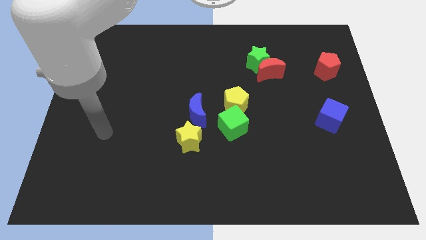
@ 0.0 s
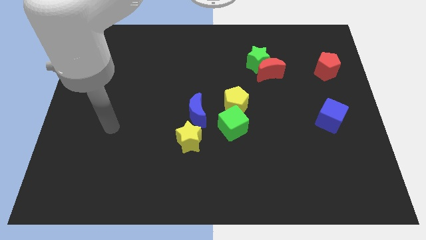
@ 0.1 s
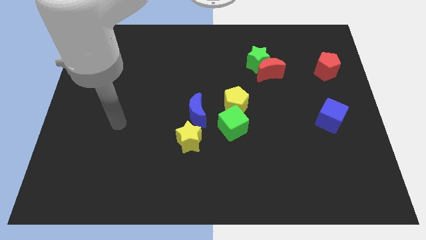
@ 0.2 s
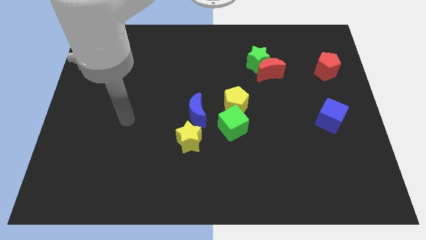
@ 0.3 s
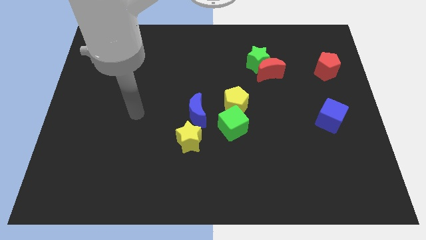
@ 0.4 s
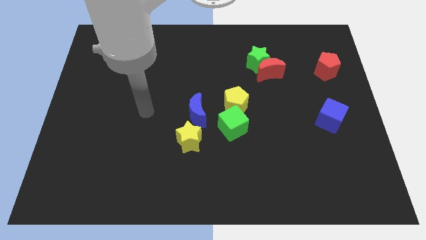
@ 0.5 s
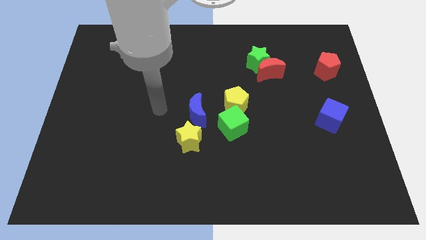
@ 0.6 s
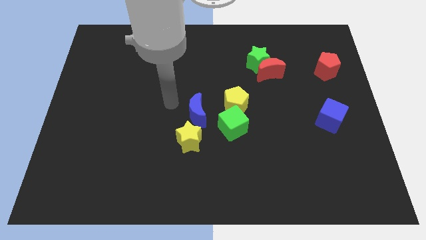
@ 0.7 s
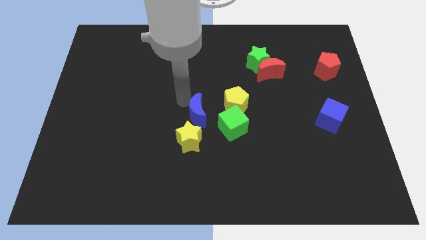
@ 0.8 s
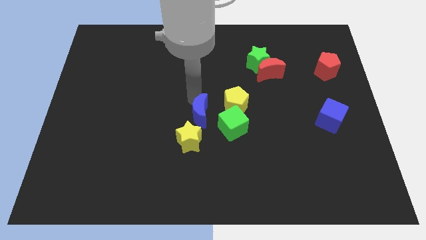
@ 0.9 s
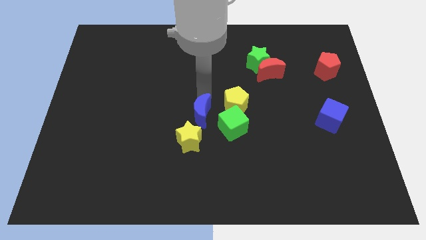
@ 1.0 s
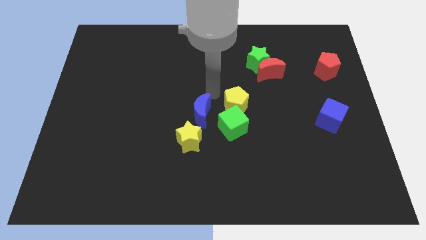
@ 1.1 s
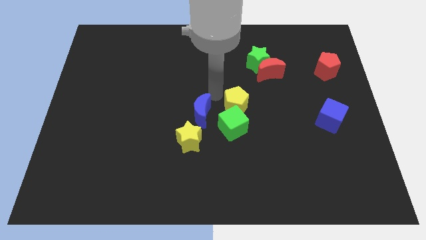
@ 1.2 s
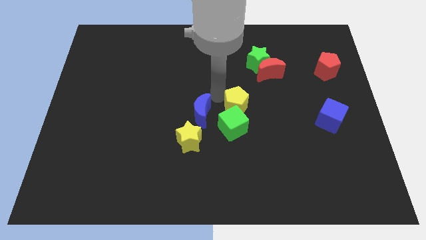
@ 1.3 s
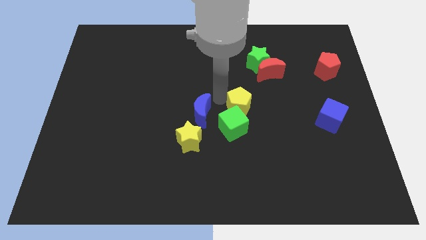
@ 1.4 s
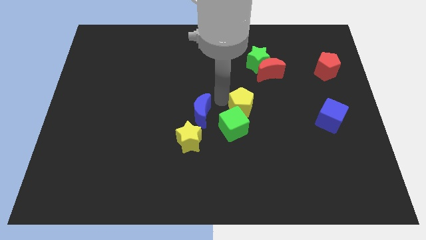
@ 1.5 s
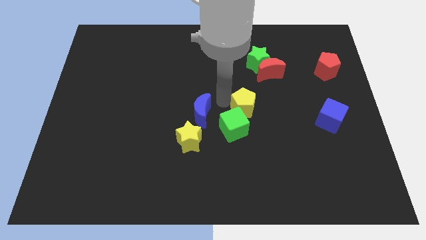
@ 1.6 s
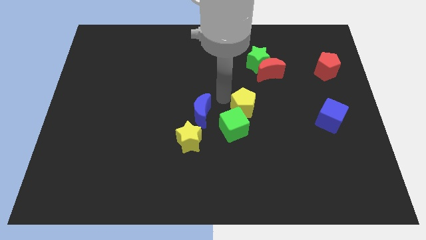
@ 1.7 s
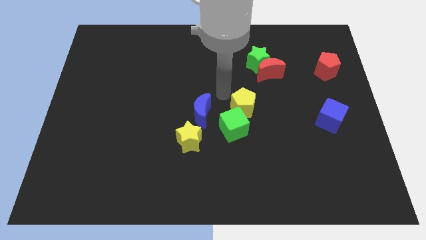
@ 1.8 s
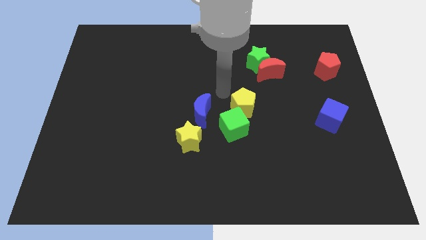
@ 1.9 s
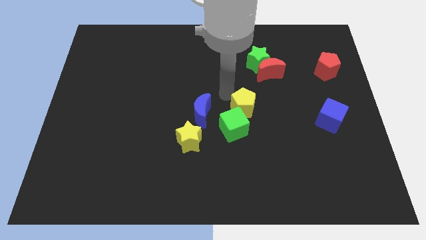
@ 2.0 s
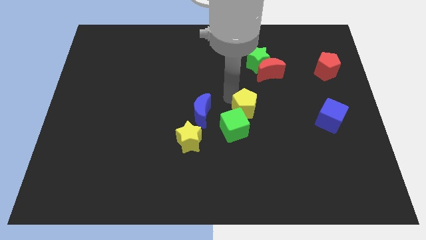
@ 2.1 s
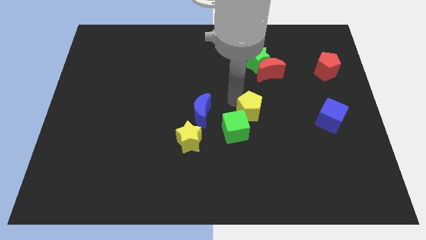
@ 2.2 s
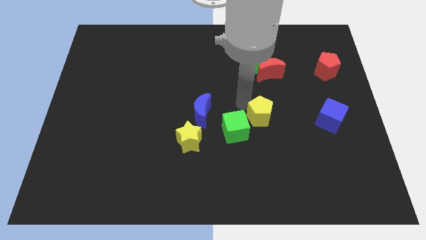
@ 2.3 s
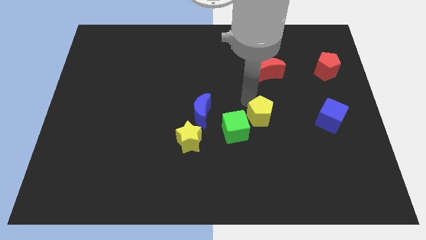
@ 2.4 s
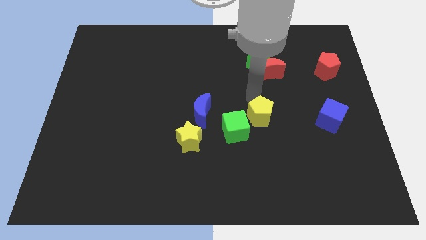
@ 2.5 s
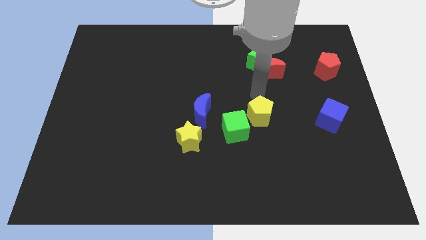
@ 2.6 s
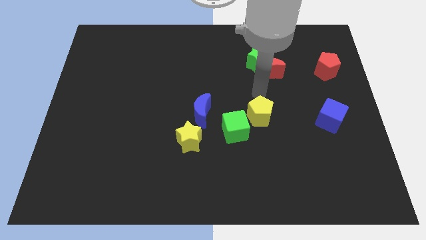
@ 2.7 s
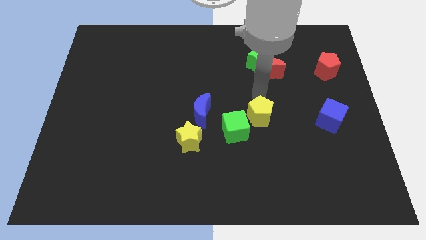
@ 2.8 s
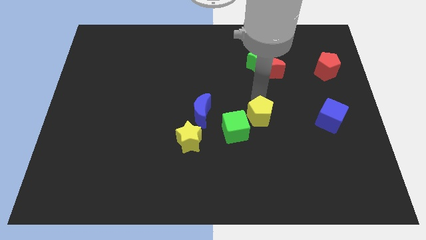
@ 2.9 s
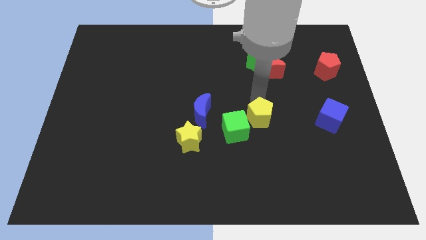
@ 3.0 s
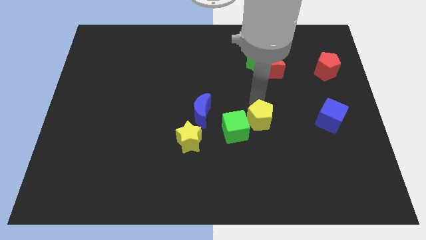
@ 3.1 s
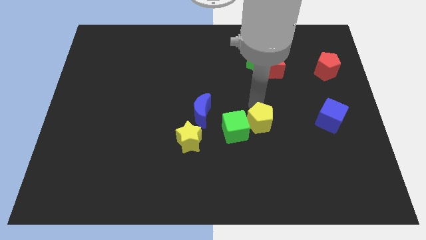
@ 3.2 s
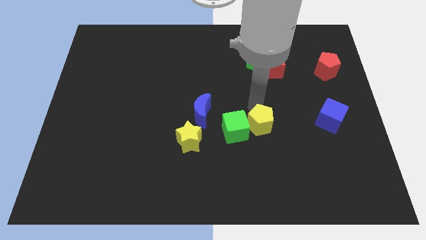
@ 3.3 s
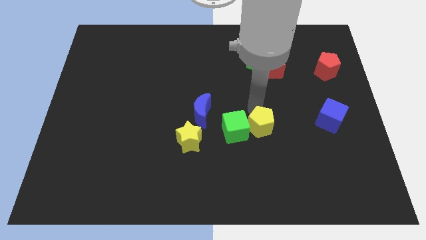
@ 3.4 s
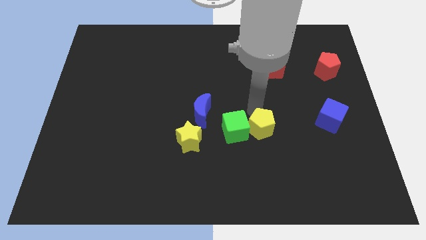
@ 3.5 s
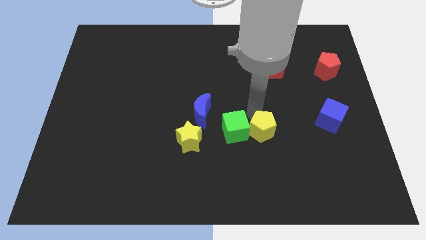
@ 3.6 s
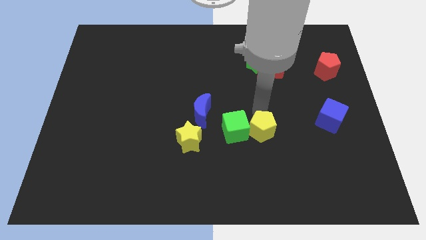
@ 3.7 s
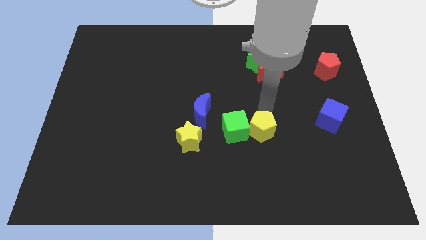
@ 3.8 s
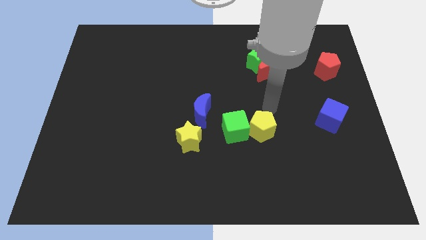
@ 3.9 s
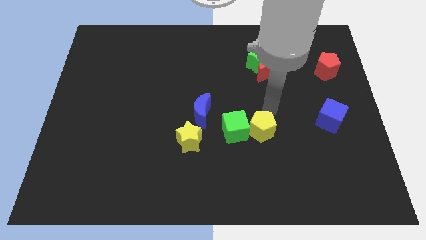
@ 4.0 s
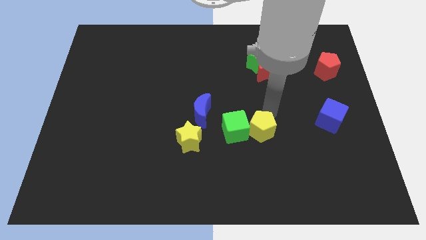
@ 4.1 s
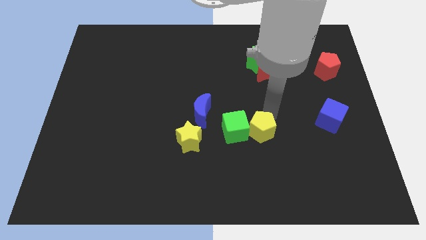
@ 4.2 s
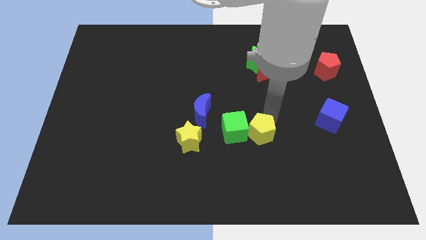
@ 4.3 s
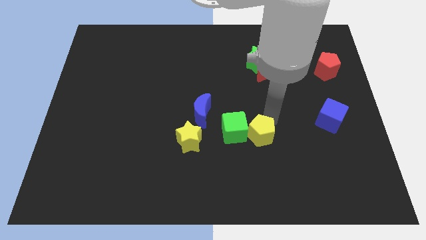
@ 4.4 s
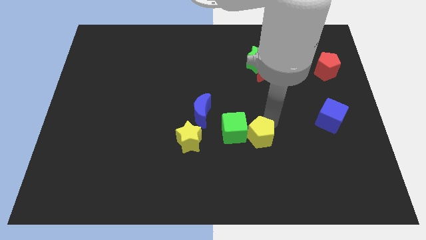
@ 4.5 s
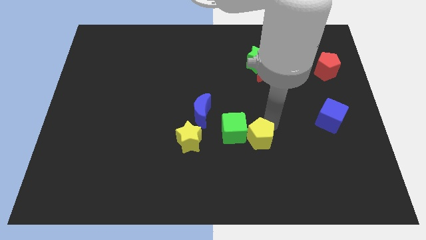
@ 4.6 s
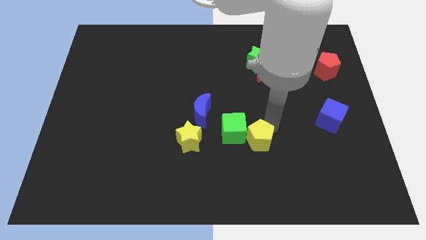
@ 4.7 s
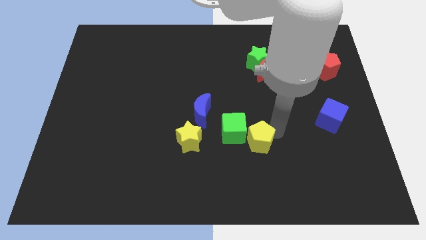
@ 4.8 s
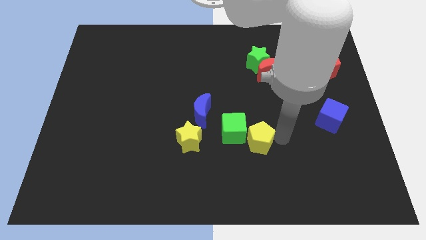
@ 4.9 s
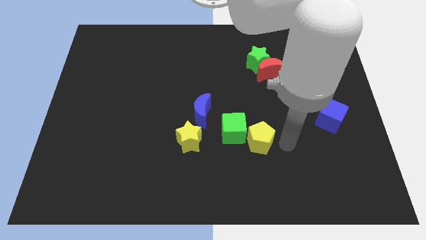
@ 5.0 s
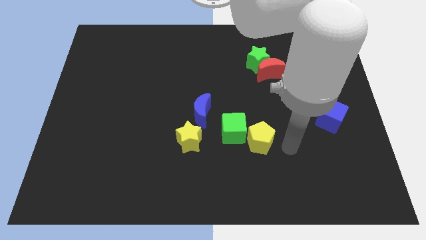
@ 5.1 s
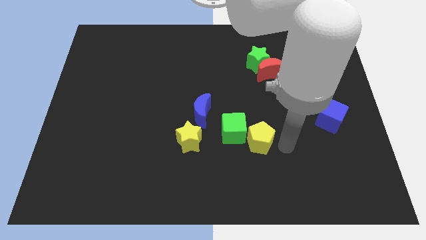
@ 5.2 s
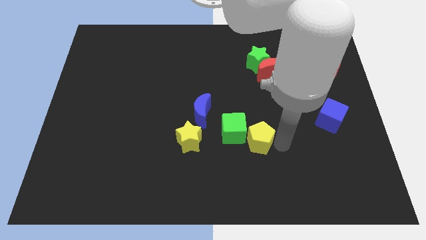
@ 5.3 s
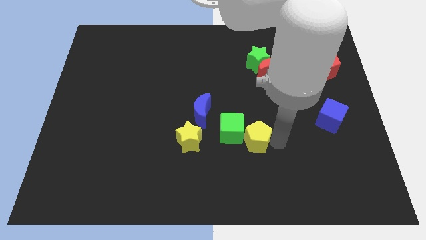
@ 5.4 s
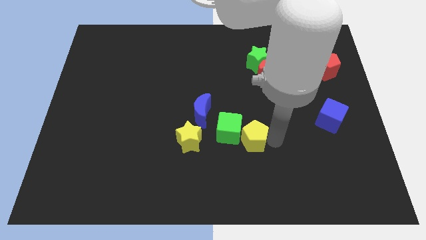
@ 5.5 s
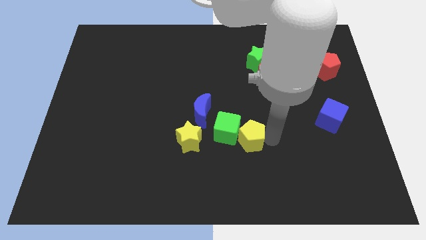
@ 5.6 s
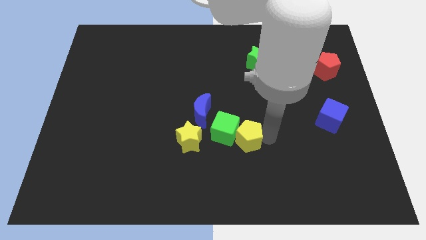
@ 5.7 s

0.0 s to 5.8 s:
move the yellow pentagon to the bottom right of the blue moon

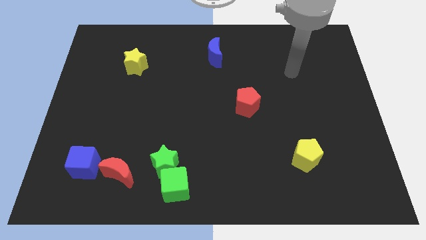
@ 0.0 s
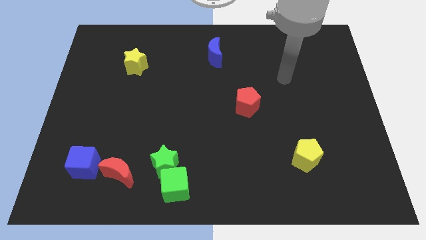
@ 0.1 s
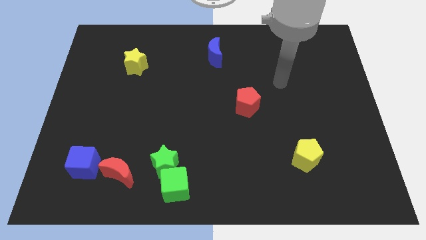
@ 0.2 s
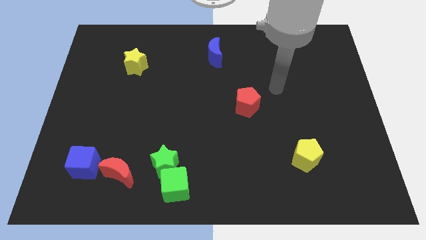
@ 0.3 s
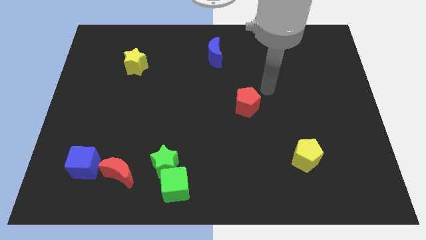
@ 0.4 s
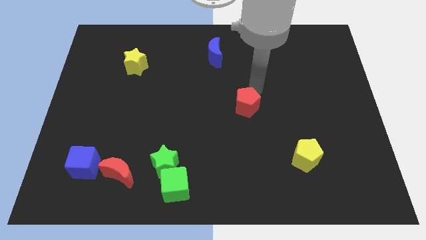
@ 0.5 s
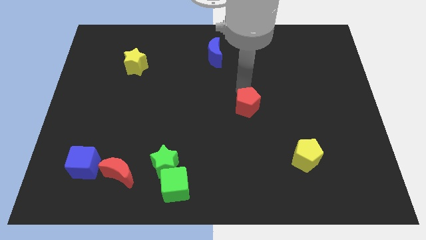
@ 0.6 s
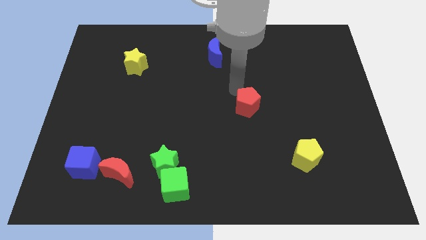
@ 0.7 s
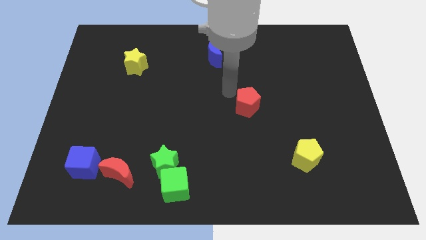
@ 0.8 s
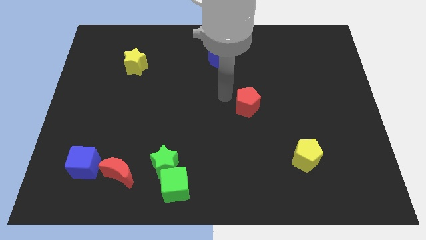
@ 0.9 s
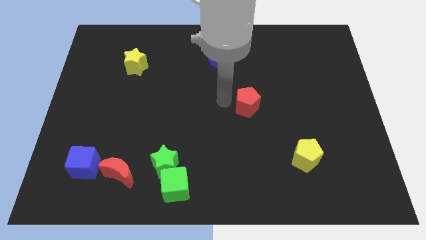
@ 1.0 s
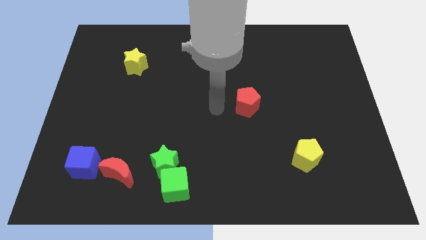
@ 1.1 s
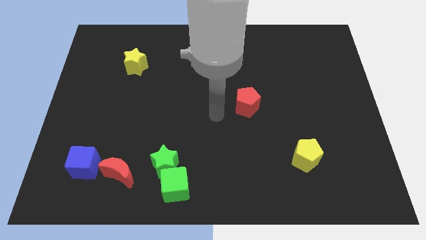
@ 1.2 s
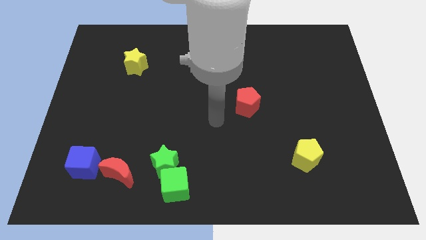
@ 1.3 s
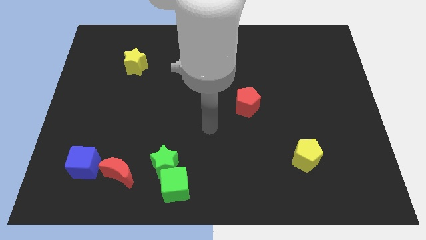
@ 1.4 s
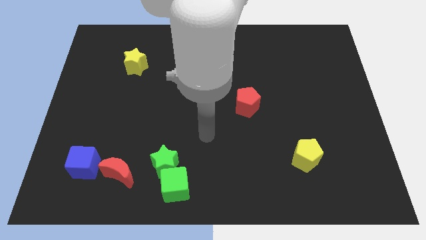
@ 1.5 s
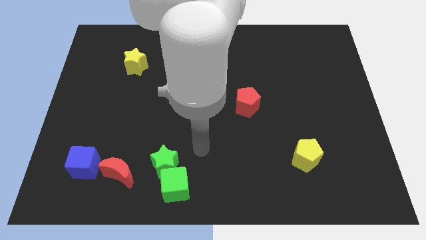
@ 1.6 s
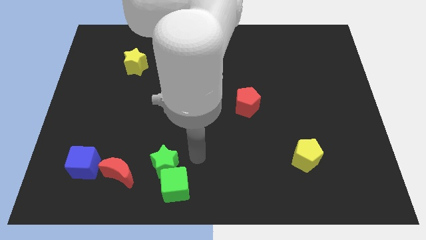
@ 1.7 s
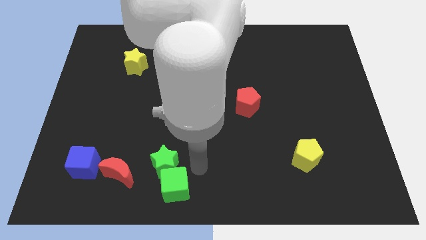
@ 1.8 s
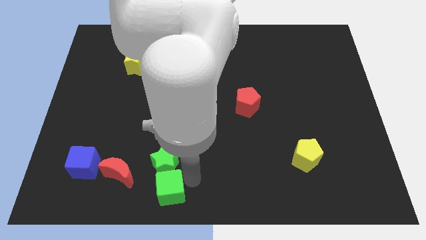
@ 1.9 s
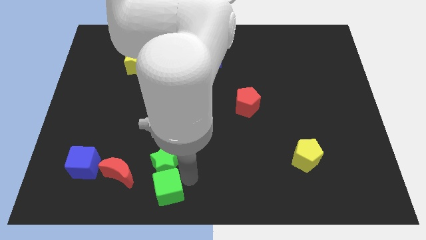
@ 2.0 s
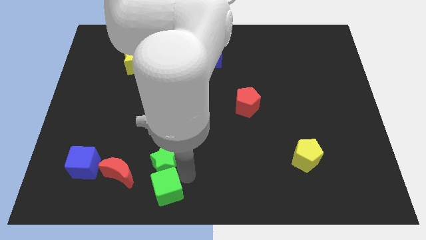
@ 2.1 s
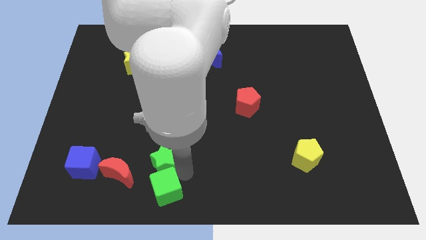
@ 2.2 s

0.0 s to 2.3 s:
slide the green star to the top right side of the red moon
